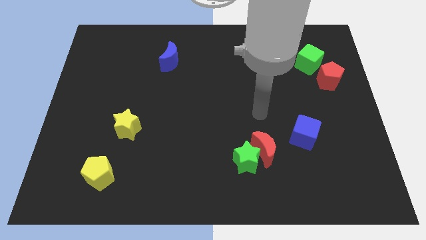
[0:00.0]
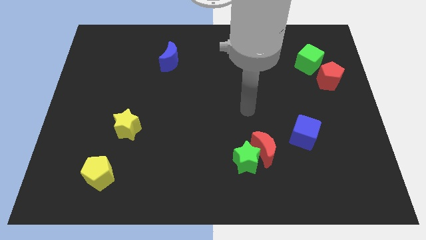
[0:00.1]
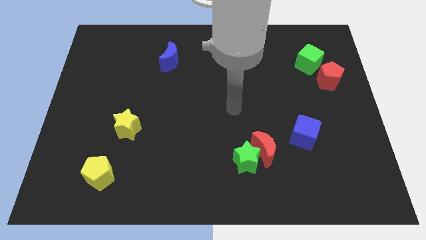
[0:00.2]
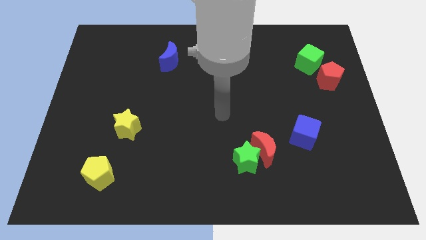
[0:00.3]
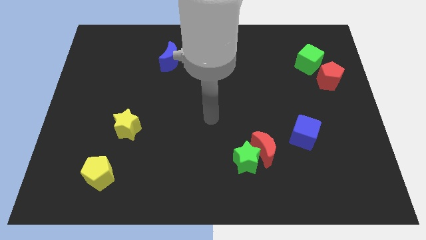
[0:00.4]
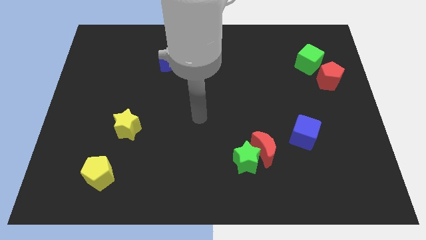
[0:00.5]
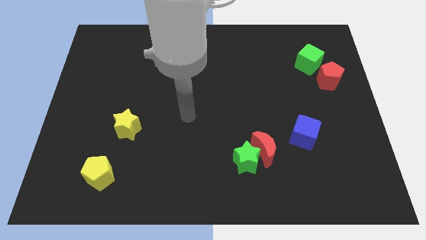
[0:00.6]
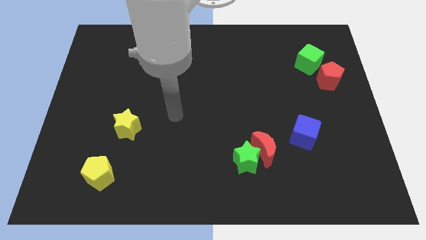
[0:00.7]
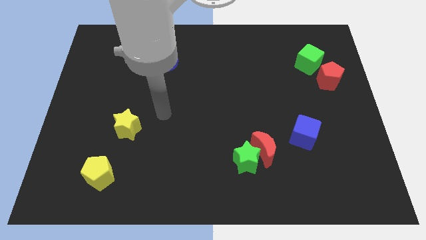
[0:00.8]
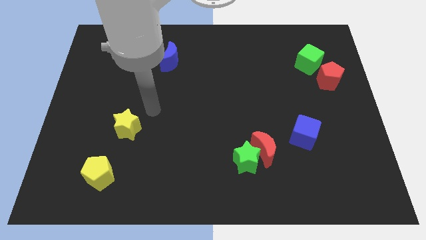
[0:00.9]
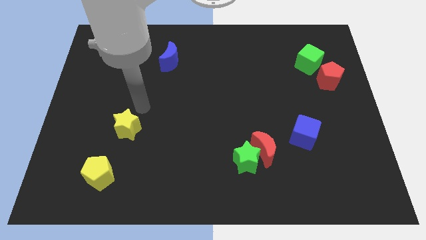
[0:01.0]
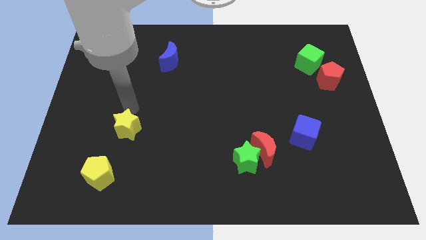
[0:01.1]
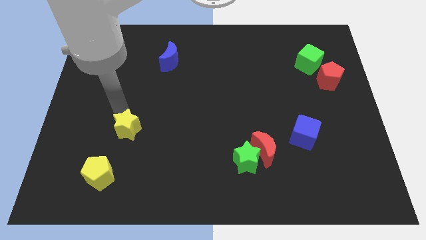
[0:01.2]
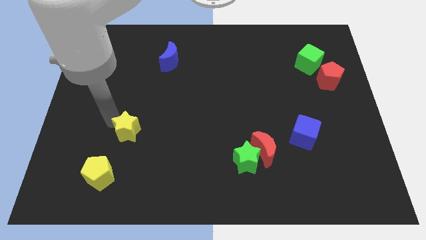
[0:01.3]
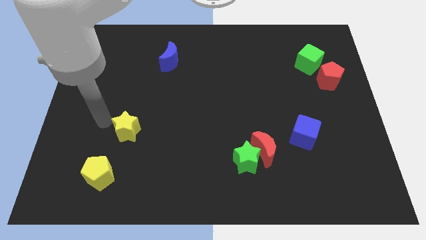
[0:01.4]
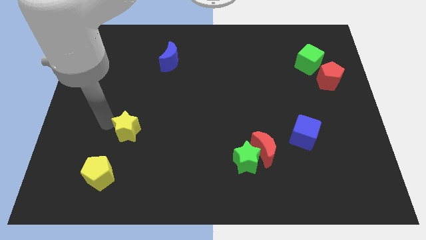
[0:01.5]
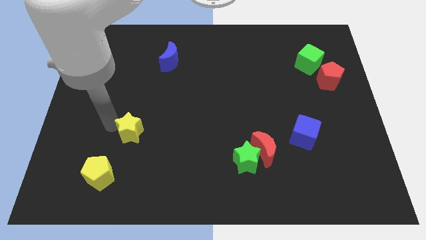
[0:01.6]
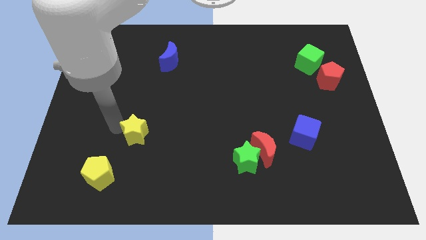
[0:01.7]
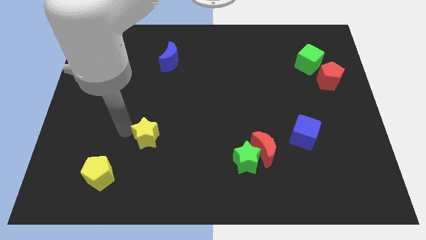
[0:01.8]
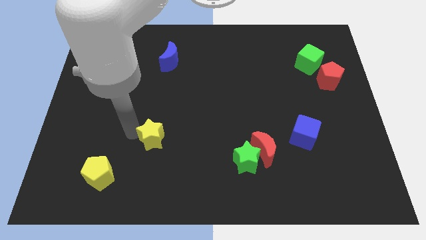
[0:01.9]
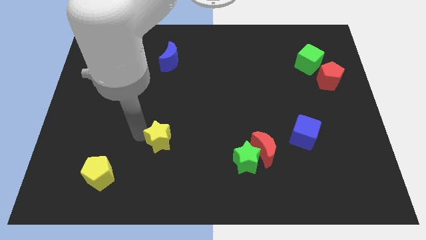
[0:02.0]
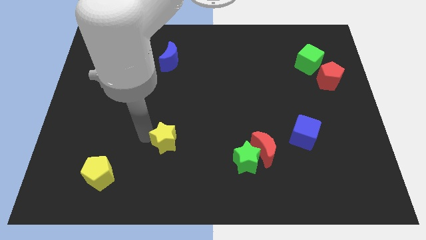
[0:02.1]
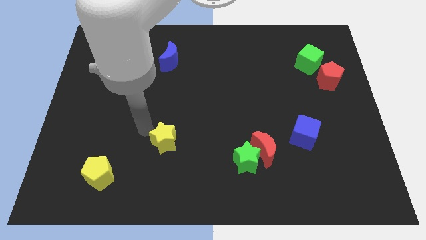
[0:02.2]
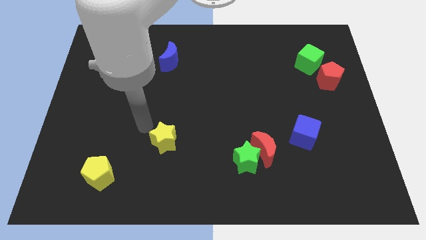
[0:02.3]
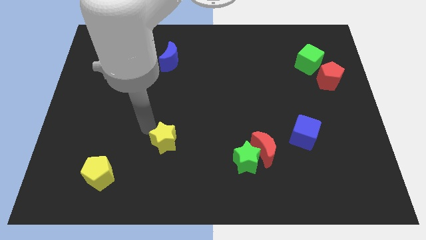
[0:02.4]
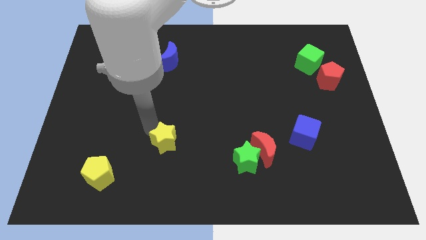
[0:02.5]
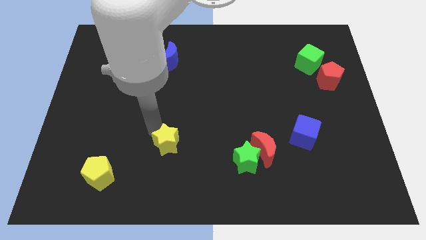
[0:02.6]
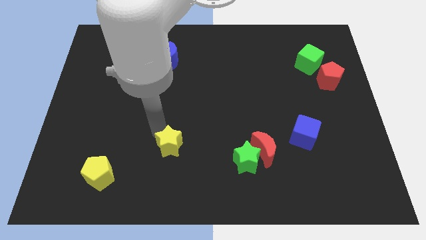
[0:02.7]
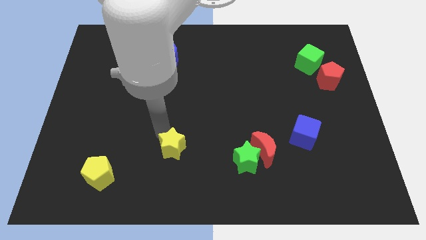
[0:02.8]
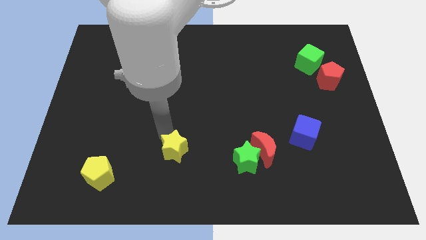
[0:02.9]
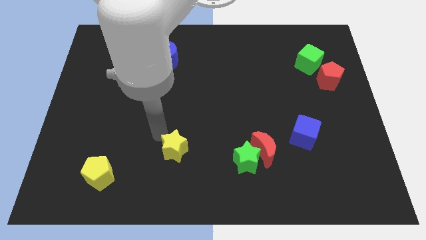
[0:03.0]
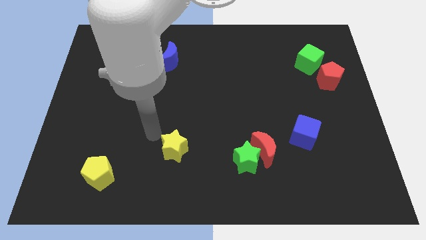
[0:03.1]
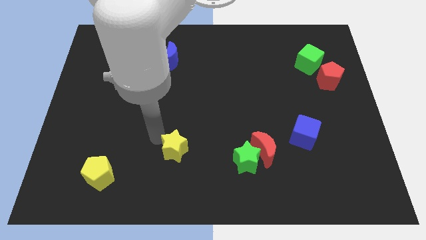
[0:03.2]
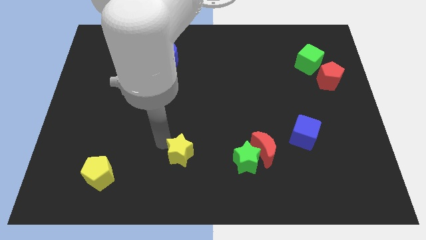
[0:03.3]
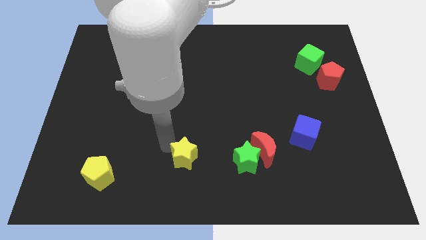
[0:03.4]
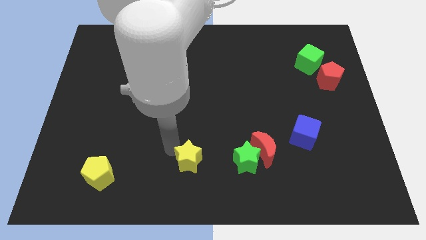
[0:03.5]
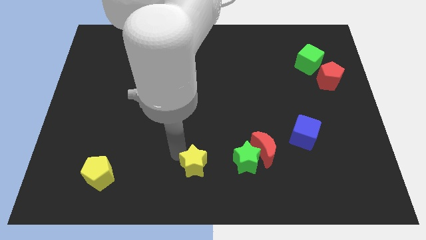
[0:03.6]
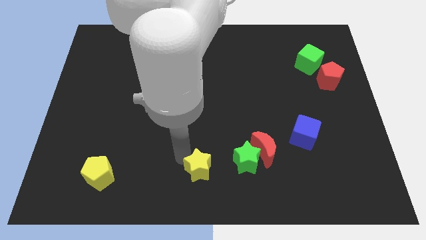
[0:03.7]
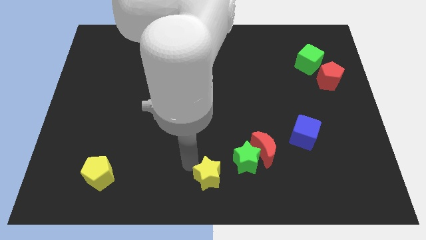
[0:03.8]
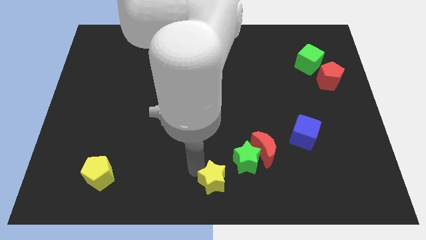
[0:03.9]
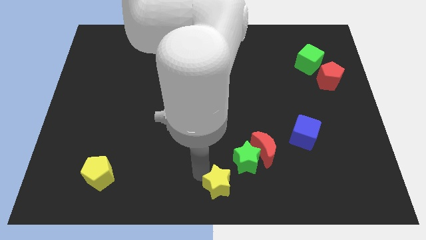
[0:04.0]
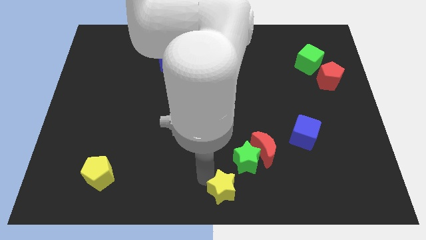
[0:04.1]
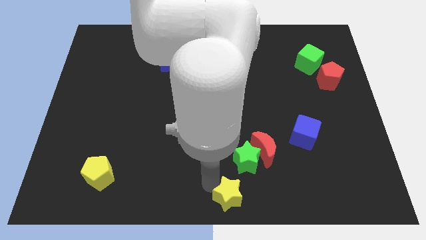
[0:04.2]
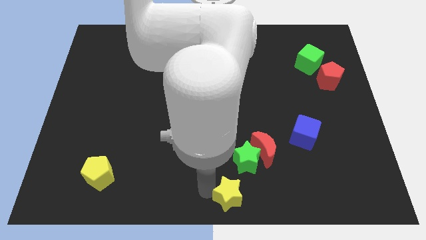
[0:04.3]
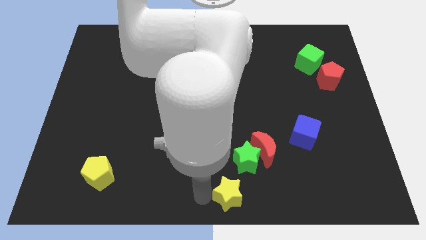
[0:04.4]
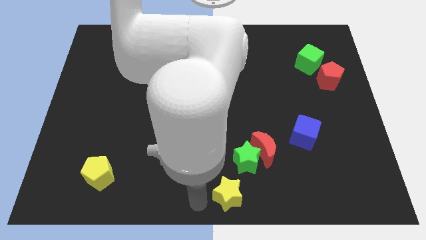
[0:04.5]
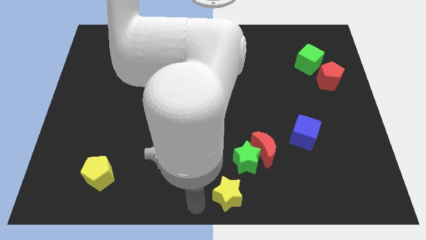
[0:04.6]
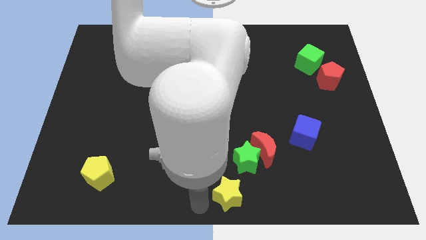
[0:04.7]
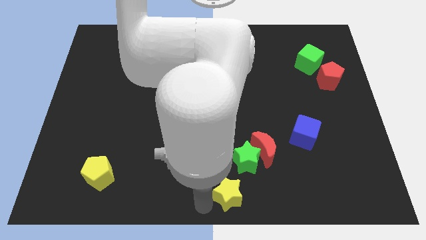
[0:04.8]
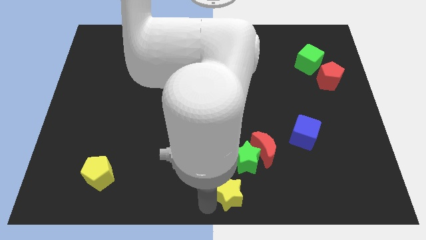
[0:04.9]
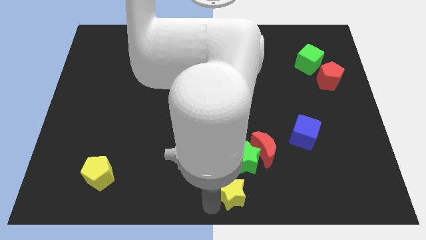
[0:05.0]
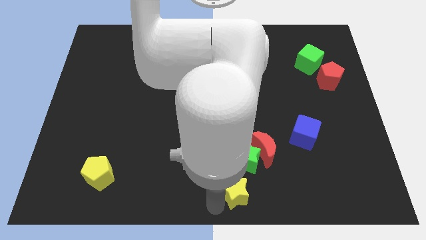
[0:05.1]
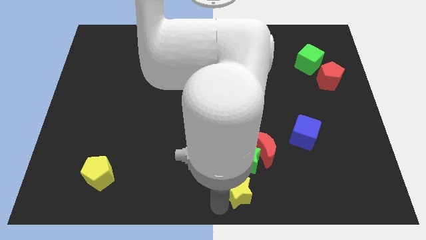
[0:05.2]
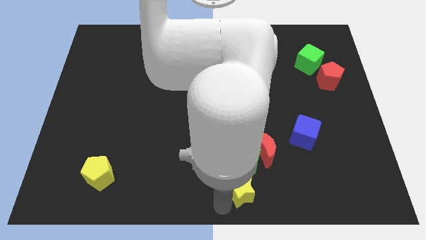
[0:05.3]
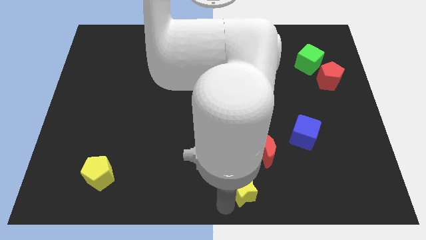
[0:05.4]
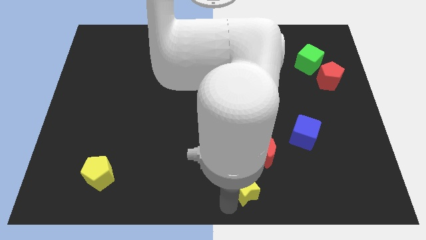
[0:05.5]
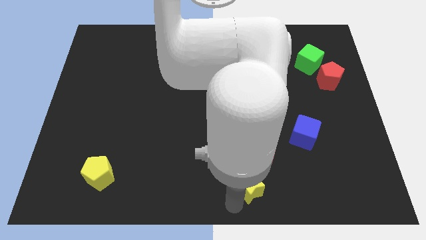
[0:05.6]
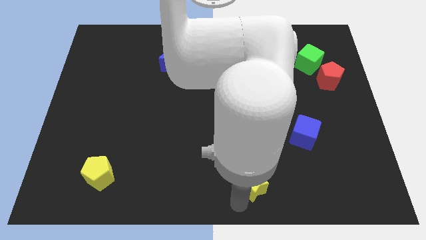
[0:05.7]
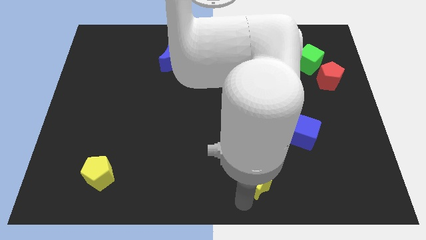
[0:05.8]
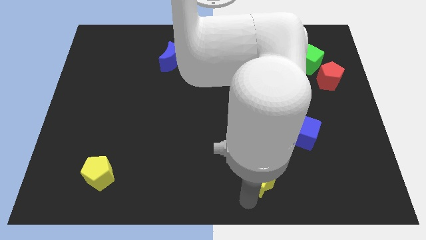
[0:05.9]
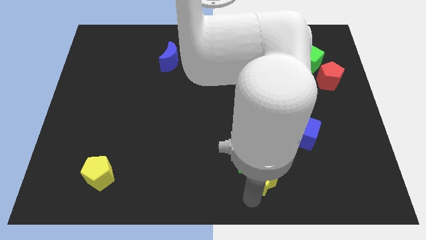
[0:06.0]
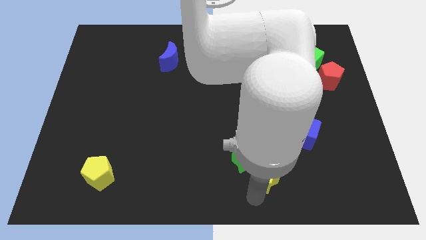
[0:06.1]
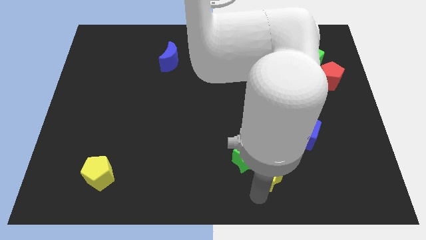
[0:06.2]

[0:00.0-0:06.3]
push the yellow star to the bottom right of the red moon
